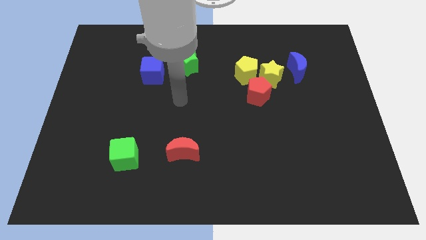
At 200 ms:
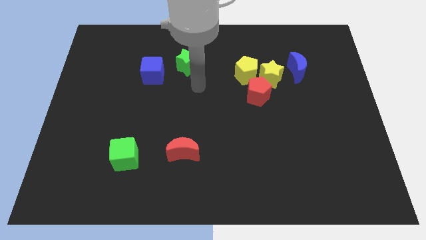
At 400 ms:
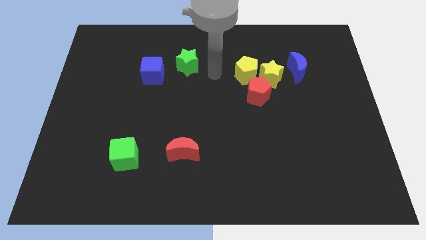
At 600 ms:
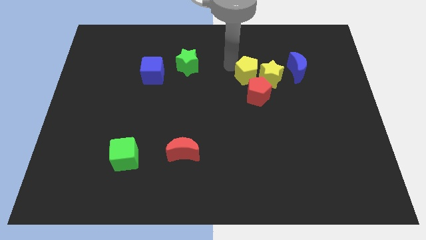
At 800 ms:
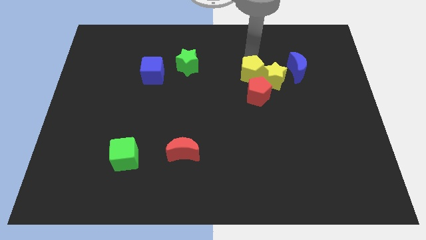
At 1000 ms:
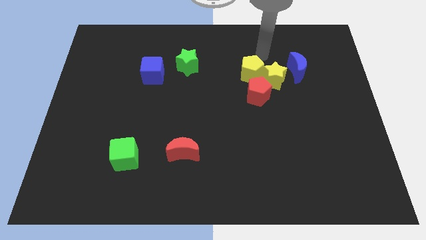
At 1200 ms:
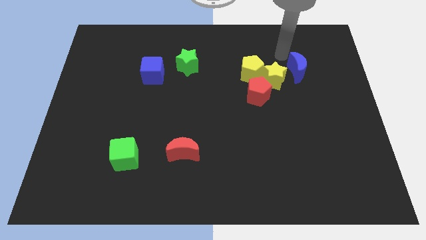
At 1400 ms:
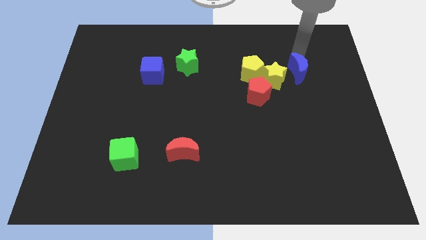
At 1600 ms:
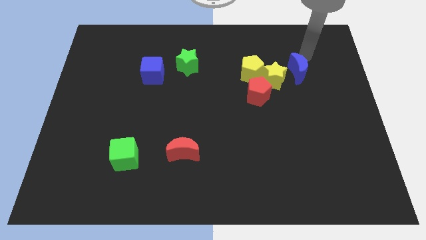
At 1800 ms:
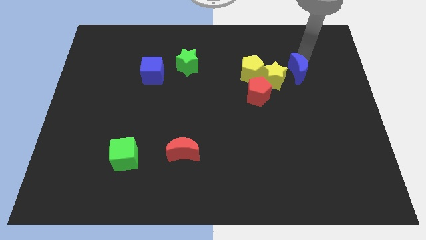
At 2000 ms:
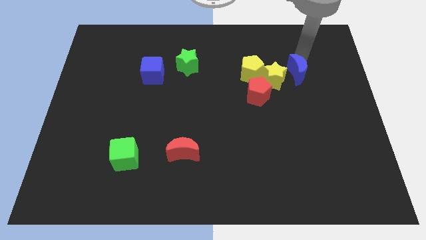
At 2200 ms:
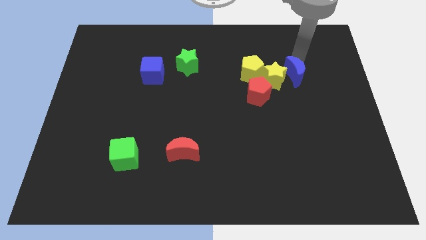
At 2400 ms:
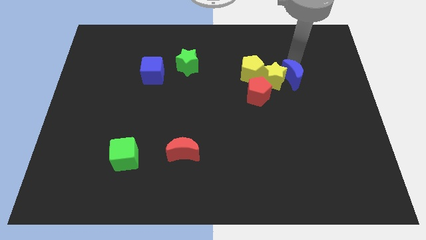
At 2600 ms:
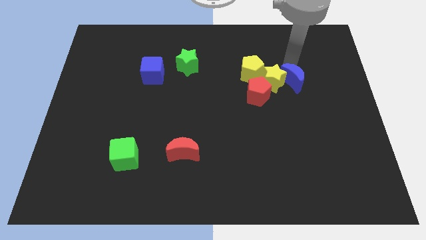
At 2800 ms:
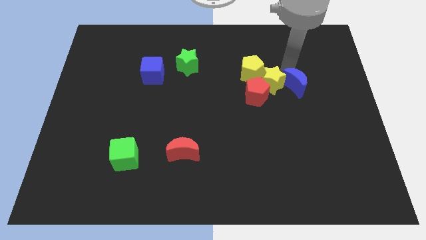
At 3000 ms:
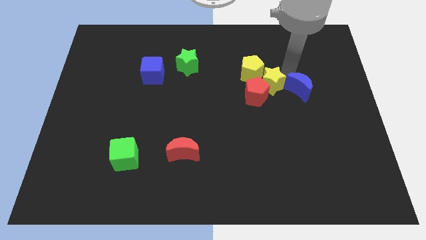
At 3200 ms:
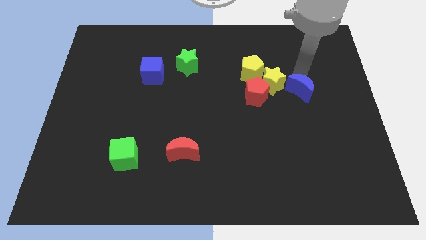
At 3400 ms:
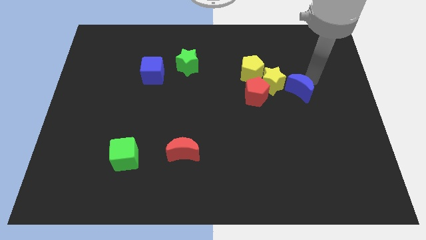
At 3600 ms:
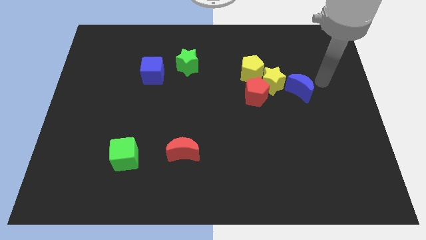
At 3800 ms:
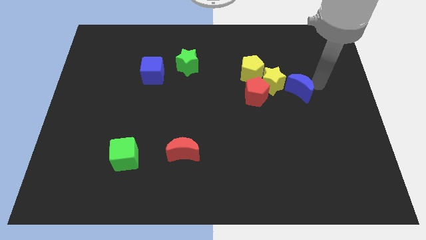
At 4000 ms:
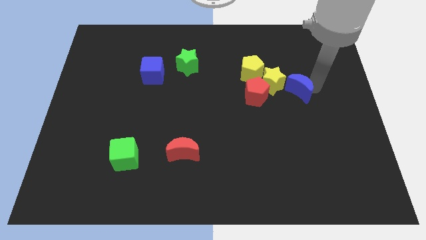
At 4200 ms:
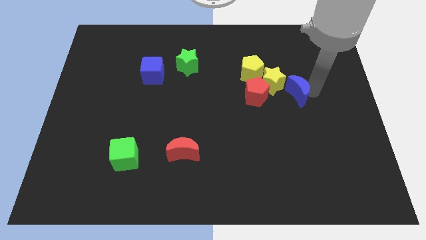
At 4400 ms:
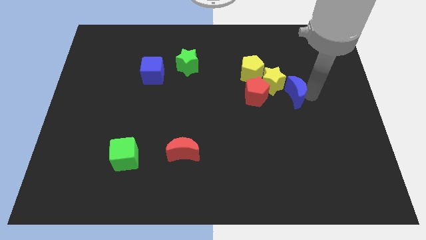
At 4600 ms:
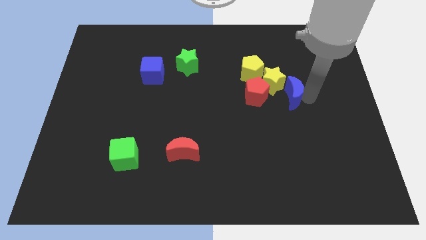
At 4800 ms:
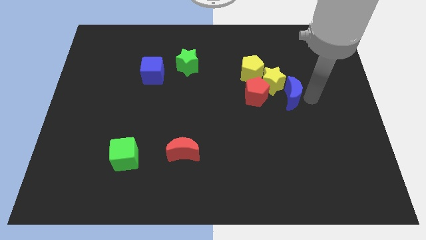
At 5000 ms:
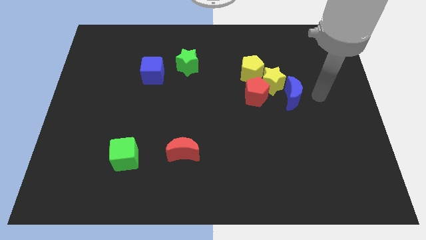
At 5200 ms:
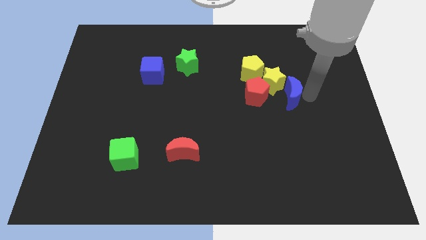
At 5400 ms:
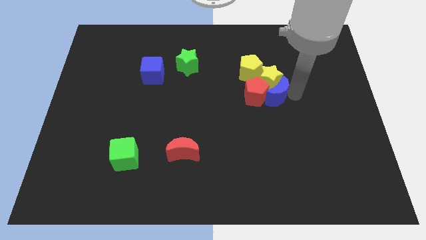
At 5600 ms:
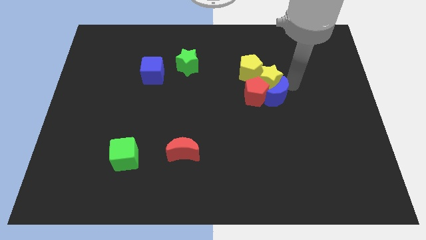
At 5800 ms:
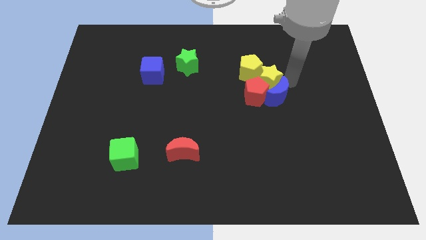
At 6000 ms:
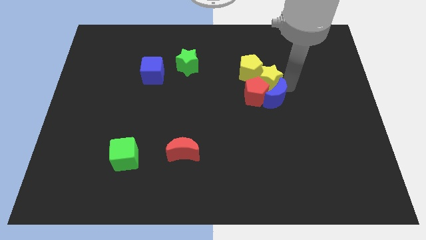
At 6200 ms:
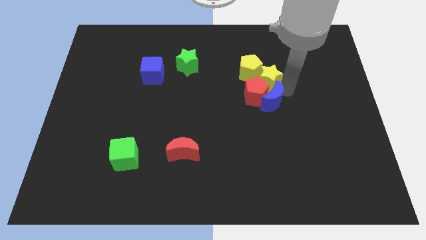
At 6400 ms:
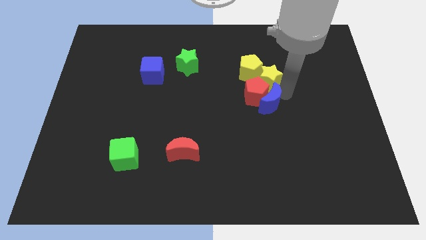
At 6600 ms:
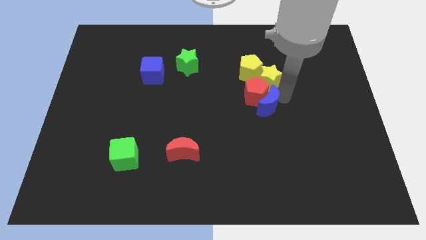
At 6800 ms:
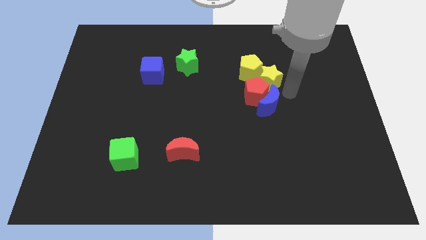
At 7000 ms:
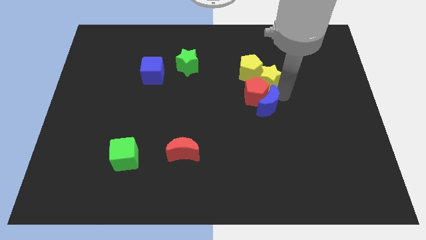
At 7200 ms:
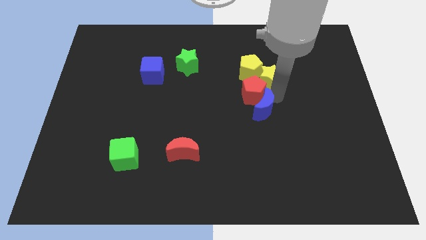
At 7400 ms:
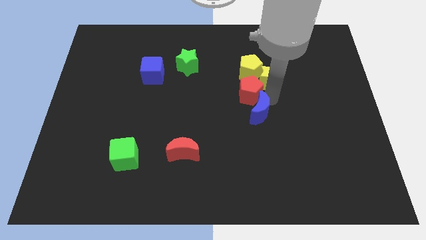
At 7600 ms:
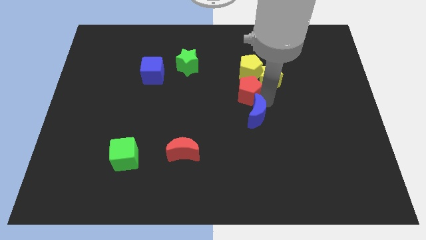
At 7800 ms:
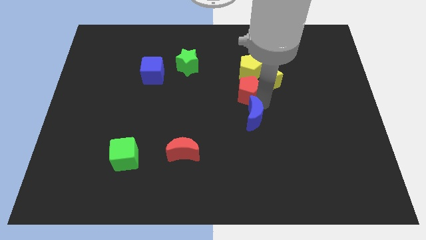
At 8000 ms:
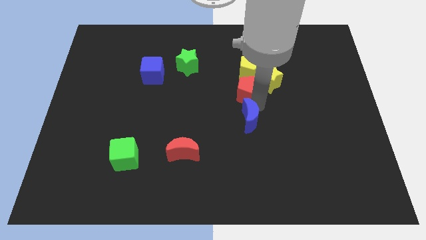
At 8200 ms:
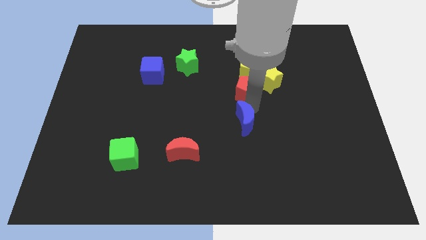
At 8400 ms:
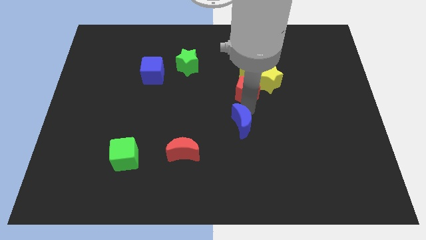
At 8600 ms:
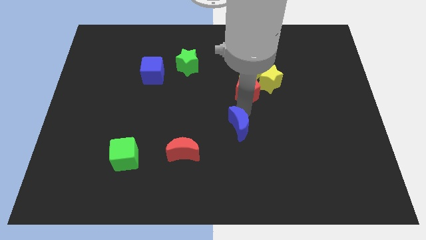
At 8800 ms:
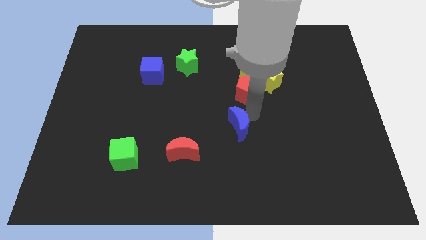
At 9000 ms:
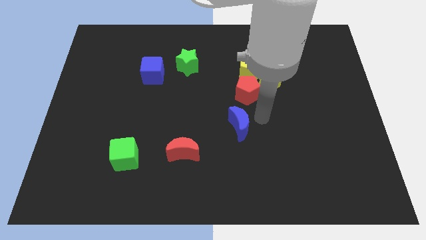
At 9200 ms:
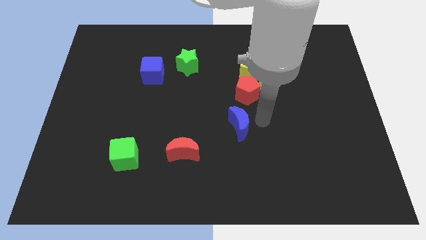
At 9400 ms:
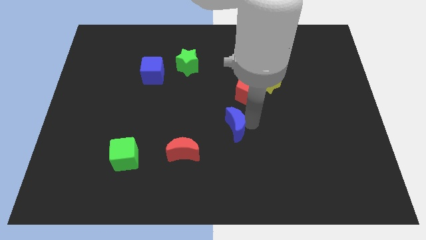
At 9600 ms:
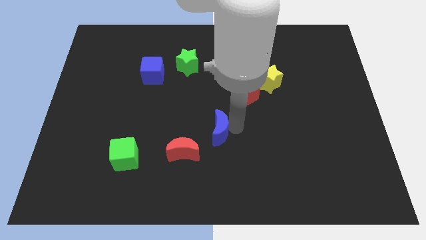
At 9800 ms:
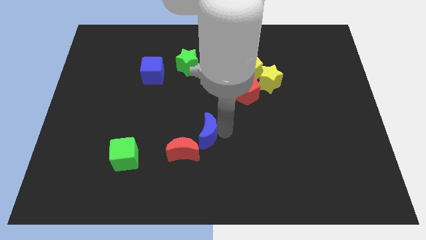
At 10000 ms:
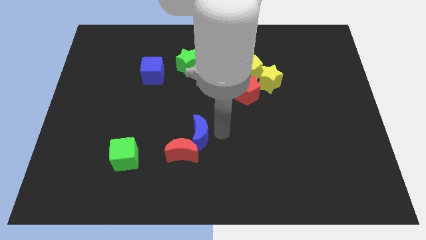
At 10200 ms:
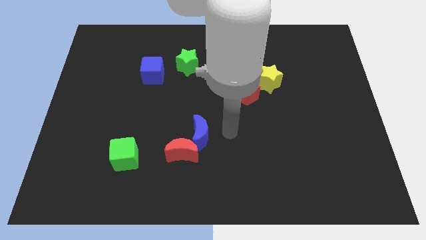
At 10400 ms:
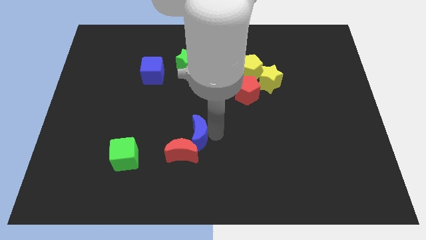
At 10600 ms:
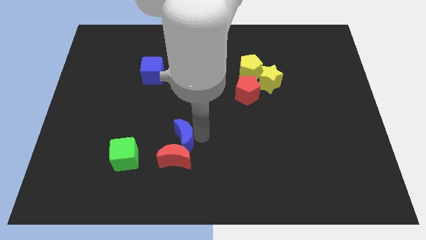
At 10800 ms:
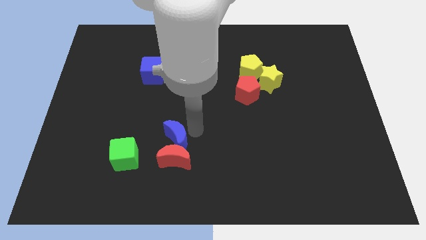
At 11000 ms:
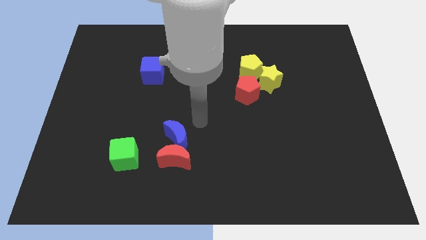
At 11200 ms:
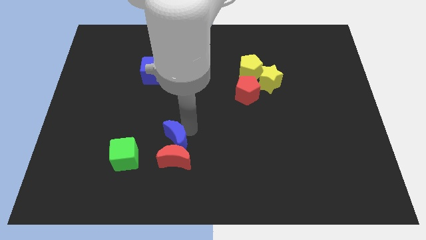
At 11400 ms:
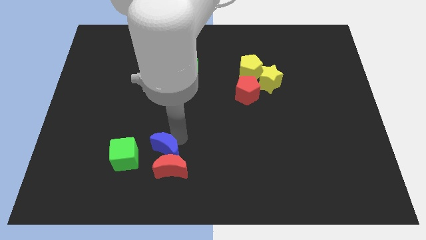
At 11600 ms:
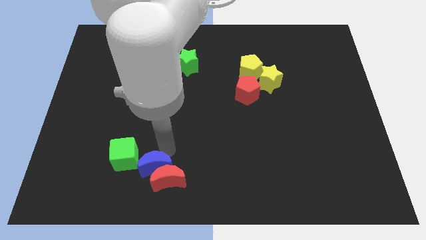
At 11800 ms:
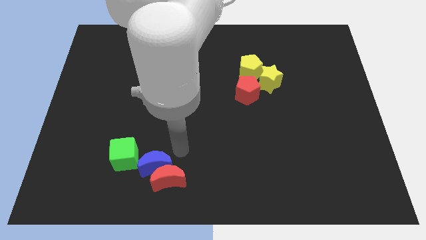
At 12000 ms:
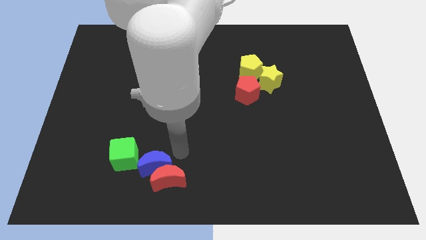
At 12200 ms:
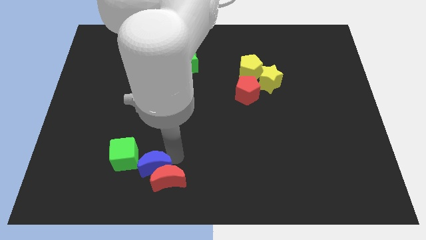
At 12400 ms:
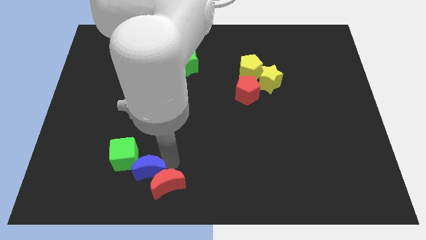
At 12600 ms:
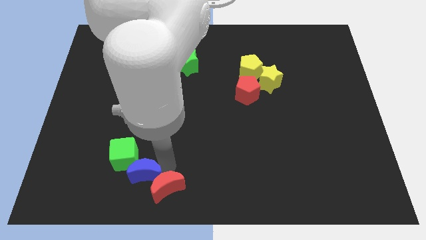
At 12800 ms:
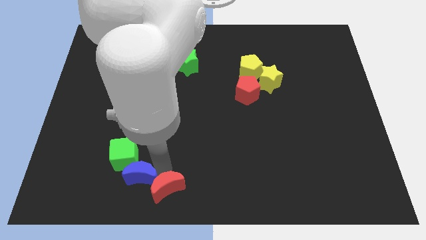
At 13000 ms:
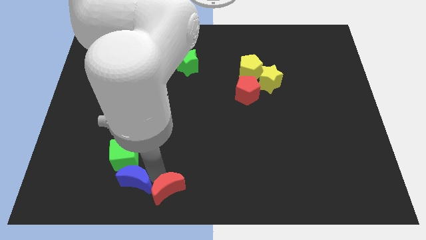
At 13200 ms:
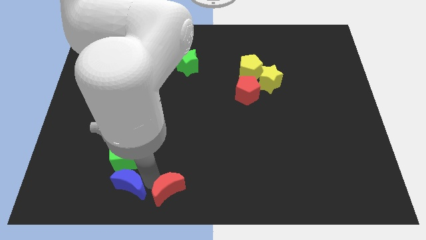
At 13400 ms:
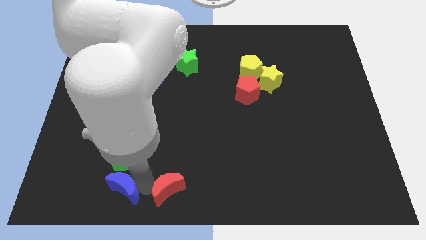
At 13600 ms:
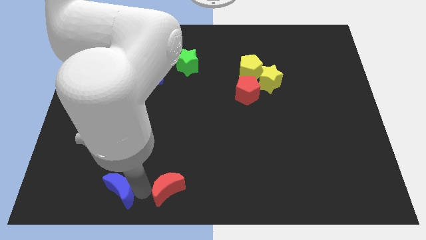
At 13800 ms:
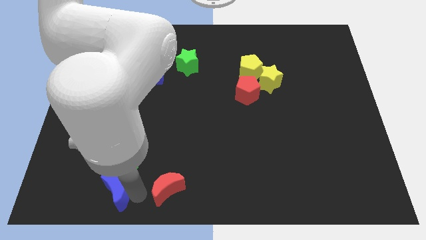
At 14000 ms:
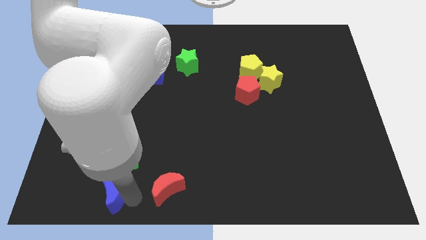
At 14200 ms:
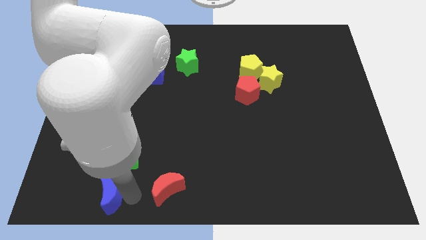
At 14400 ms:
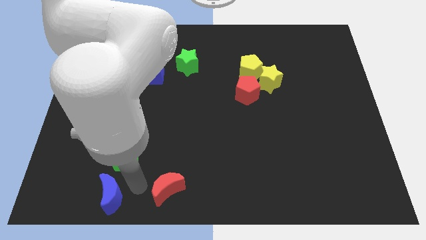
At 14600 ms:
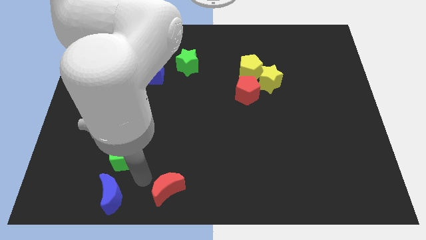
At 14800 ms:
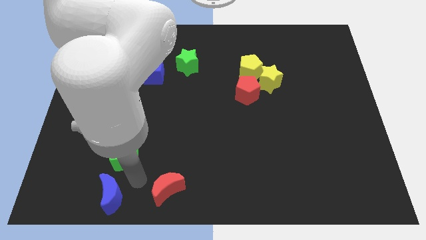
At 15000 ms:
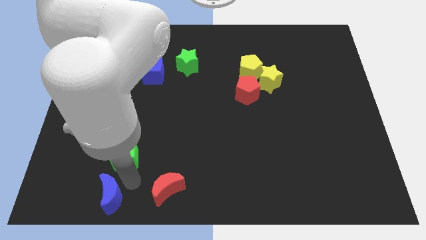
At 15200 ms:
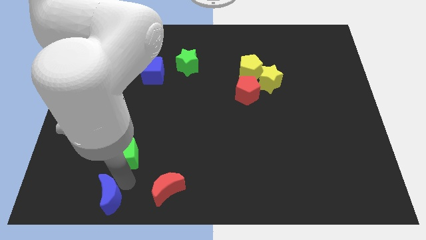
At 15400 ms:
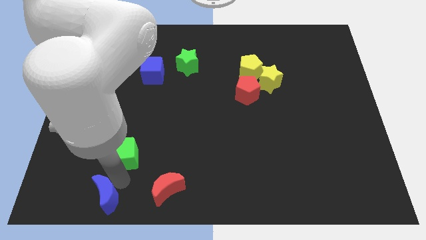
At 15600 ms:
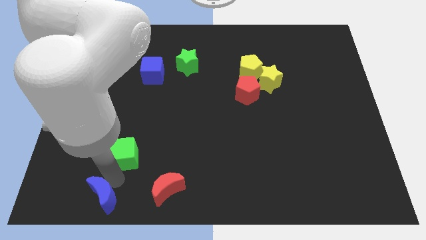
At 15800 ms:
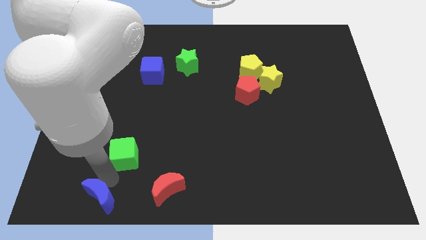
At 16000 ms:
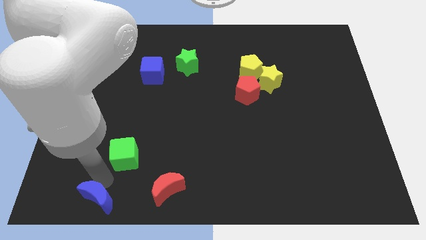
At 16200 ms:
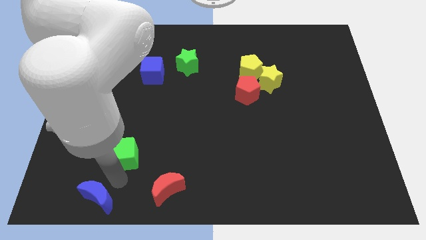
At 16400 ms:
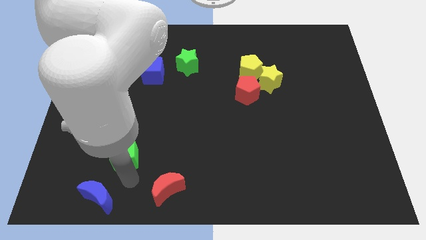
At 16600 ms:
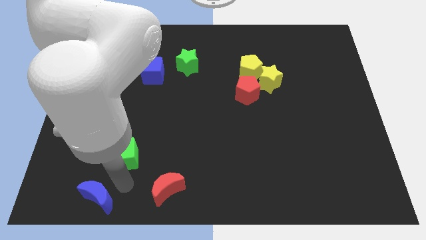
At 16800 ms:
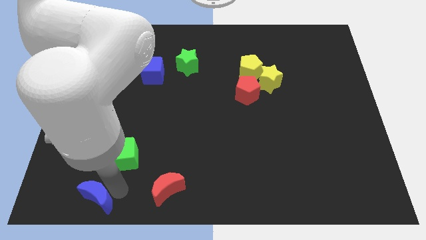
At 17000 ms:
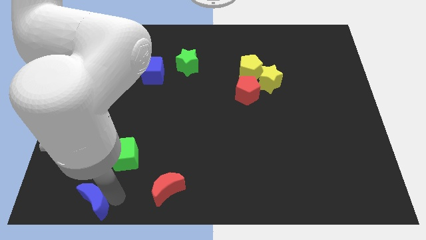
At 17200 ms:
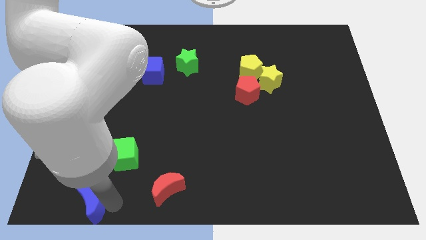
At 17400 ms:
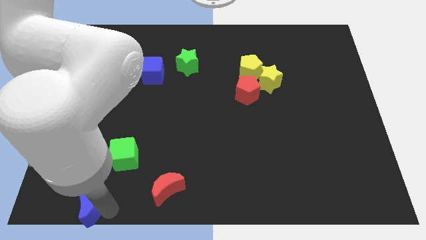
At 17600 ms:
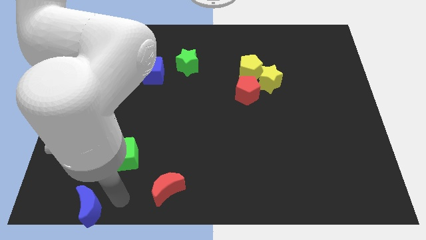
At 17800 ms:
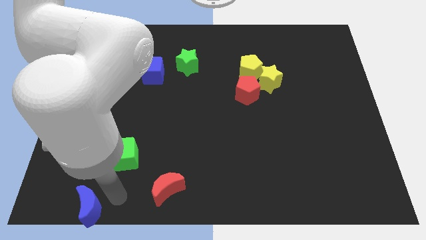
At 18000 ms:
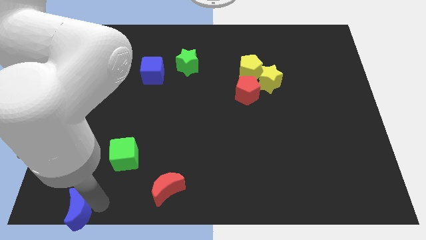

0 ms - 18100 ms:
move the blue moon to the bottom left
